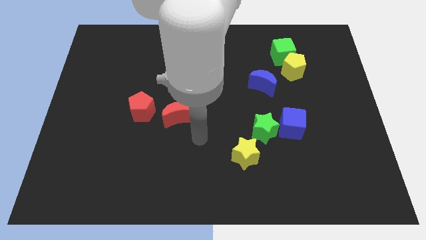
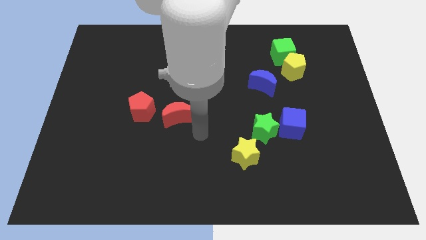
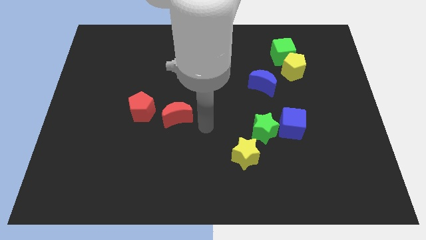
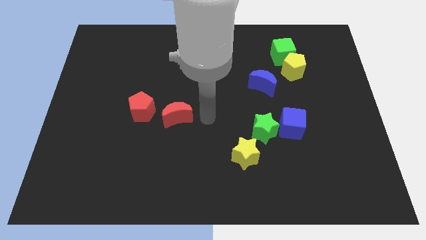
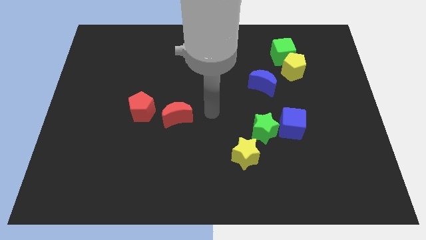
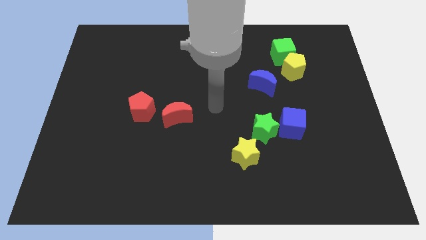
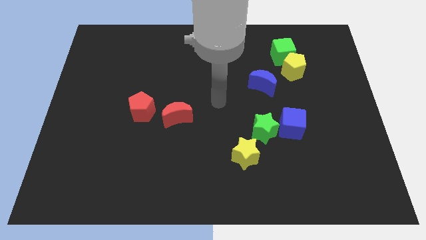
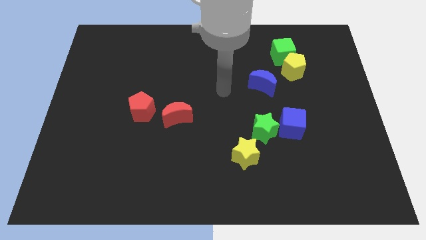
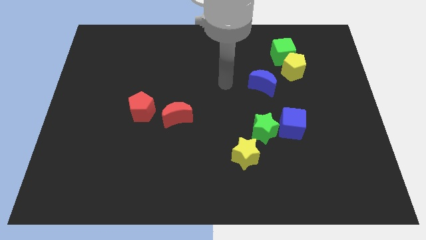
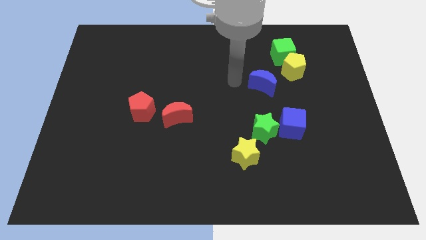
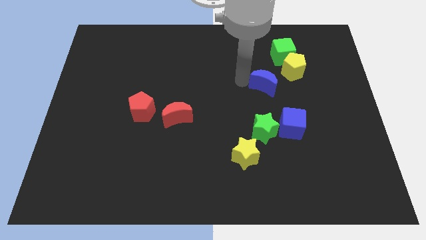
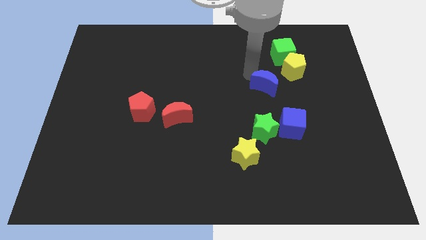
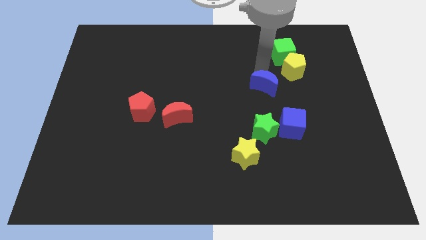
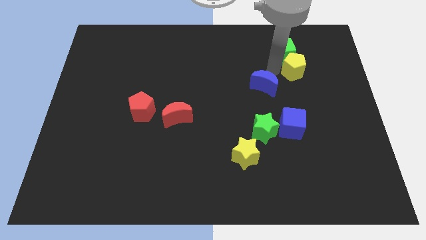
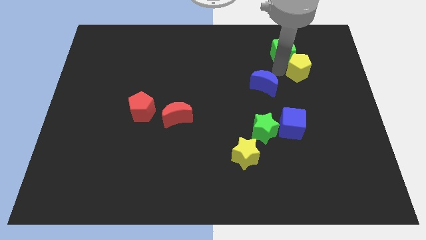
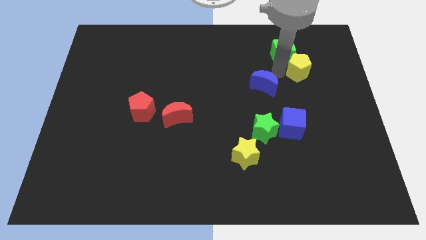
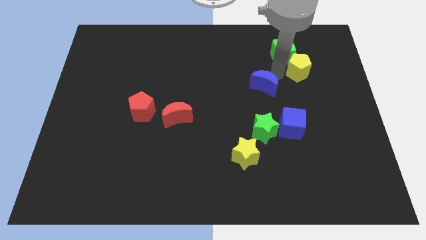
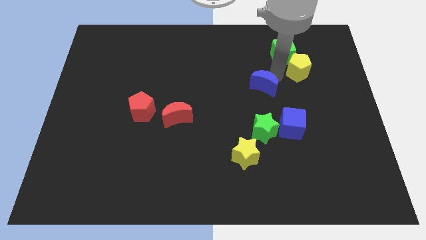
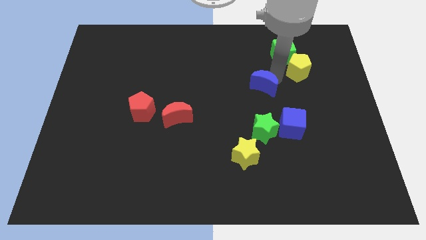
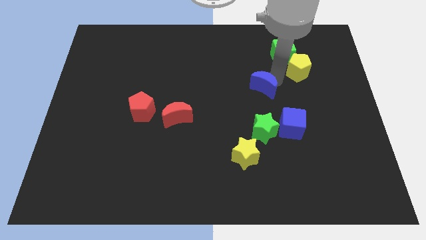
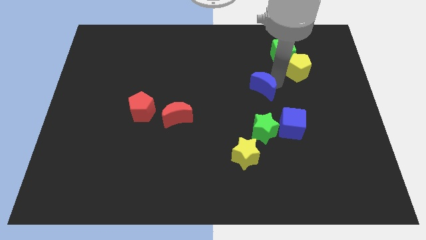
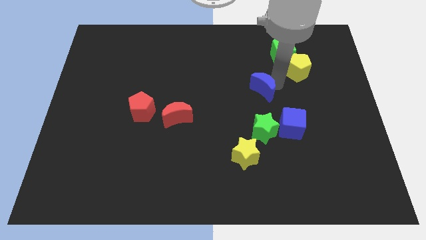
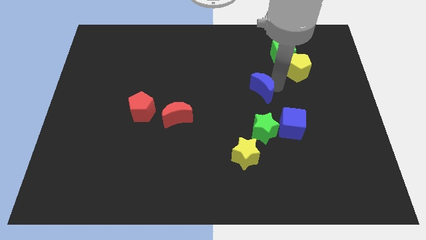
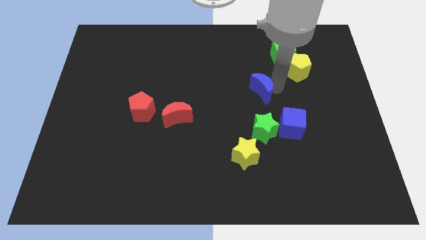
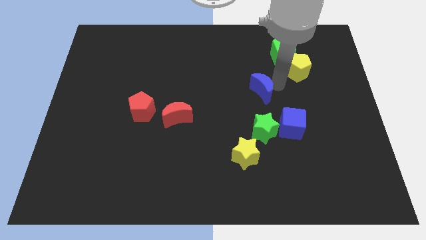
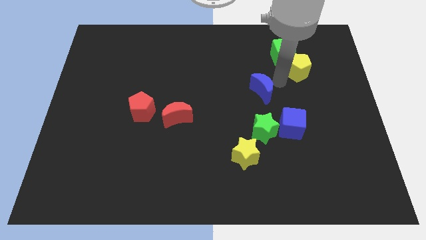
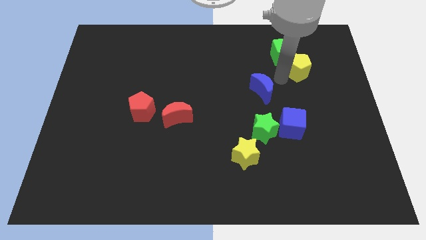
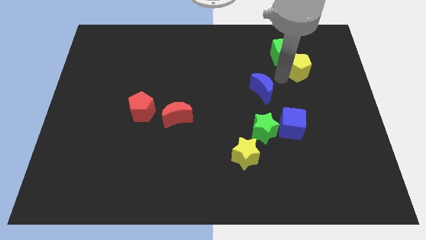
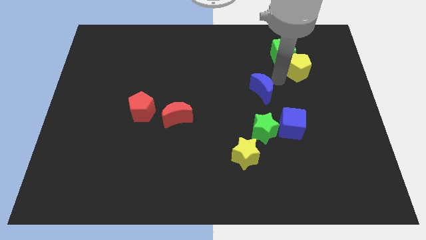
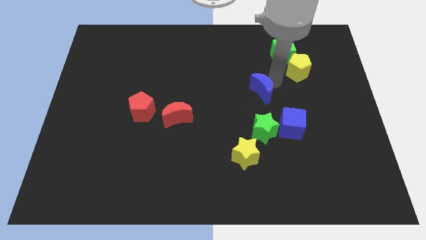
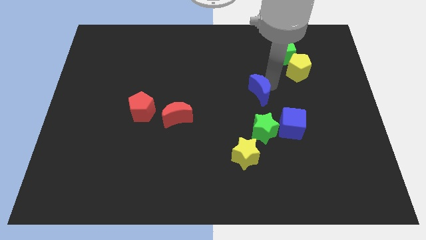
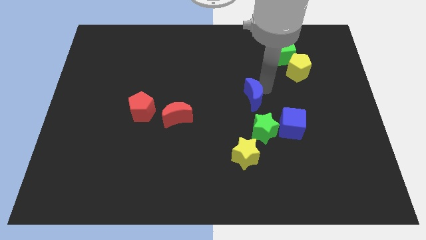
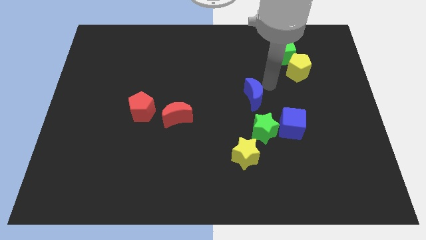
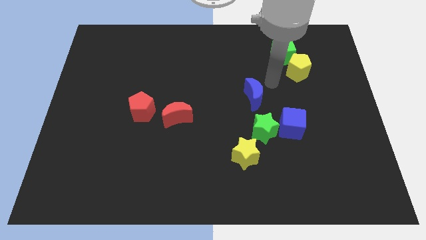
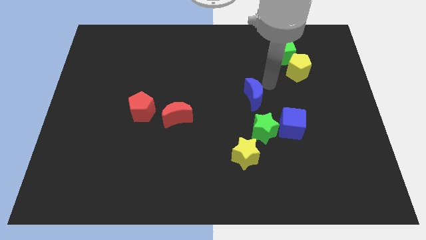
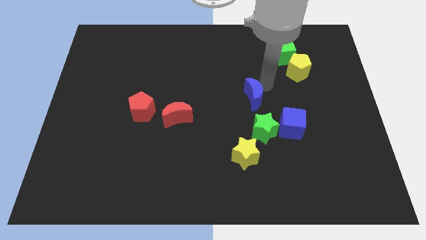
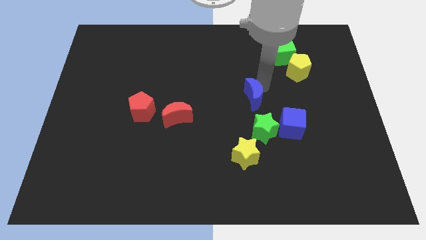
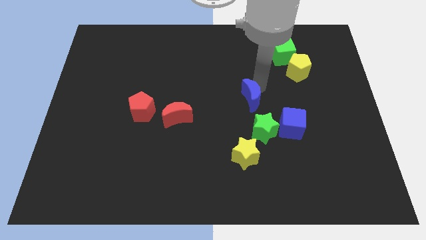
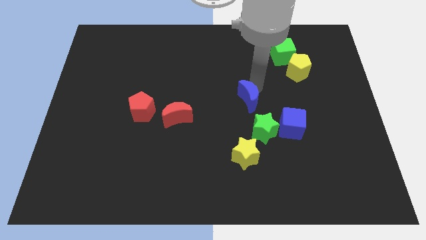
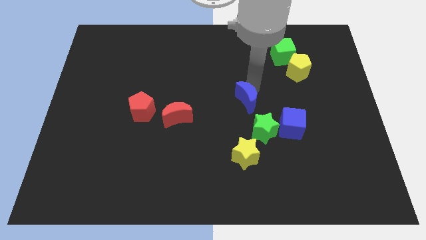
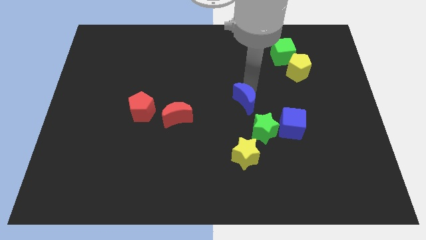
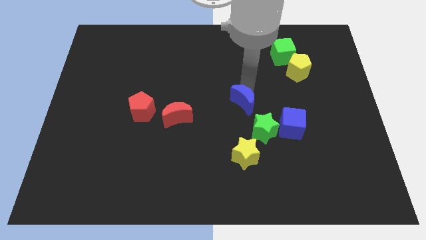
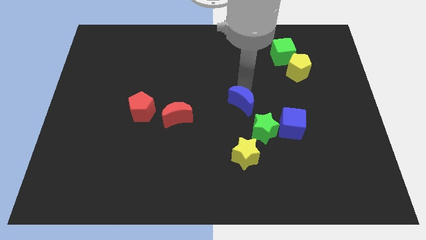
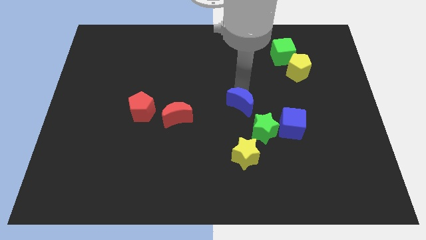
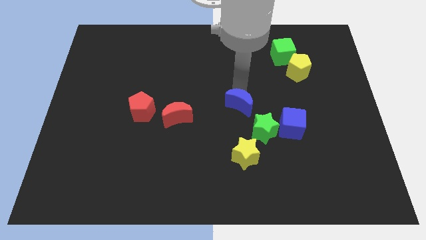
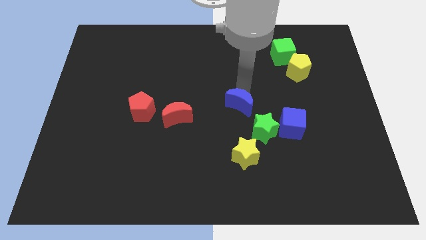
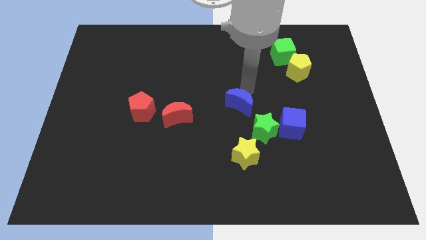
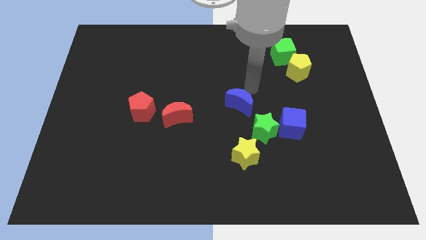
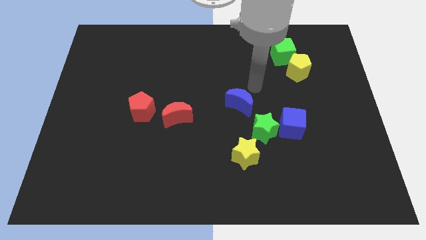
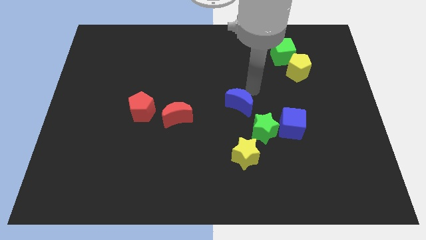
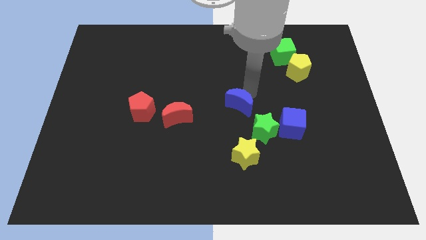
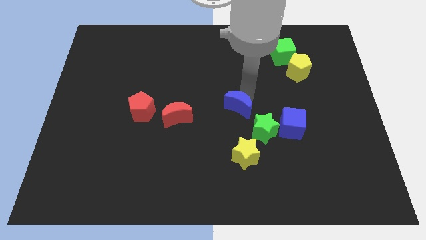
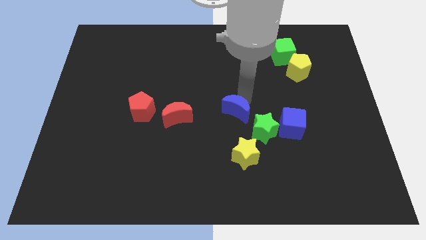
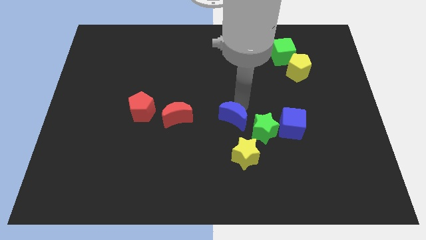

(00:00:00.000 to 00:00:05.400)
slide the blue moon to the left of the green star

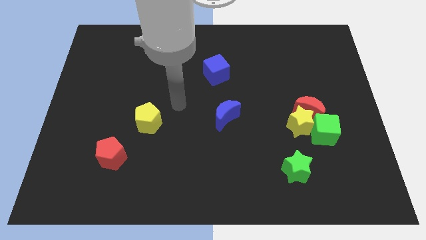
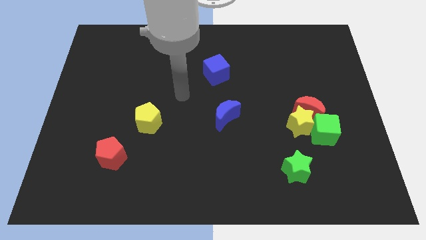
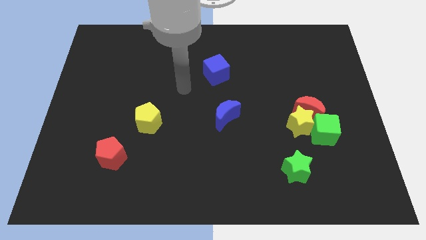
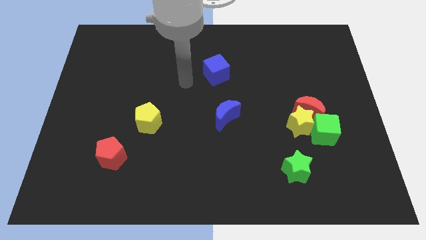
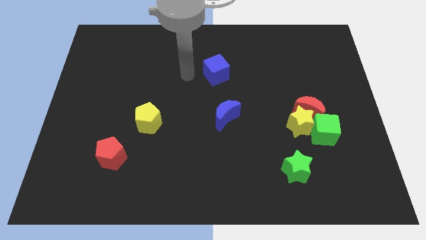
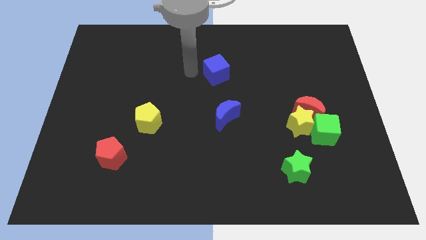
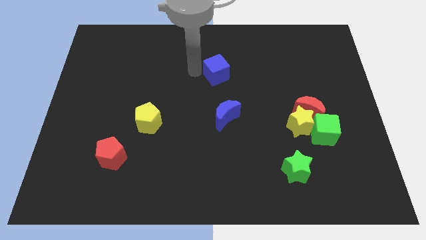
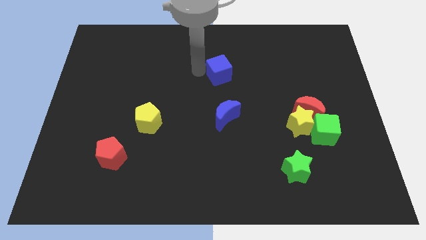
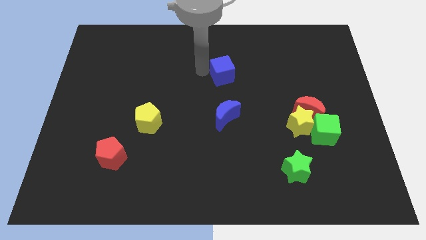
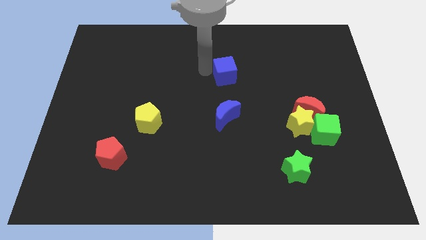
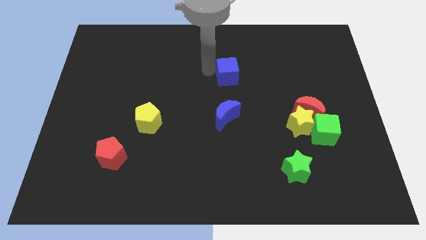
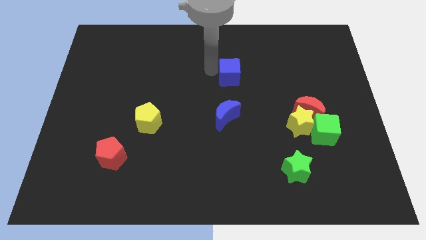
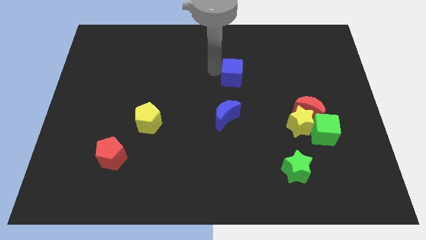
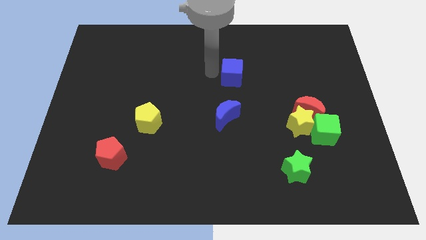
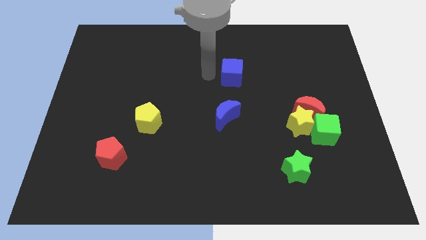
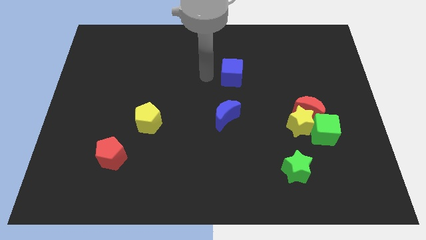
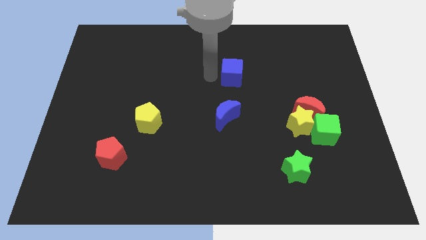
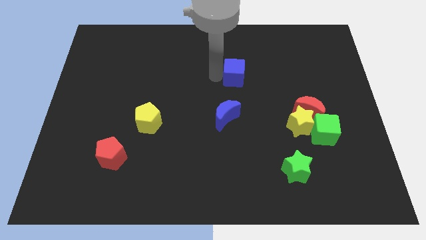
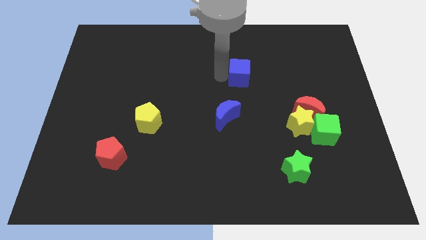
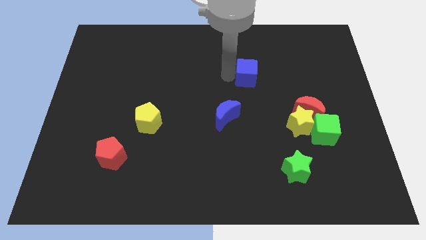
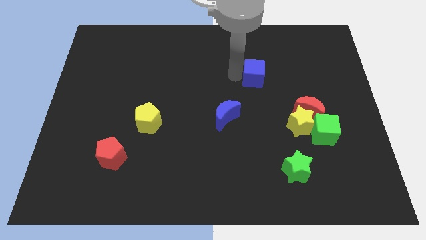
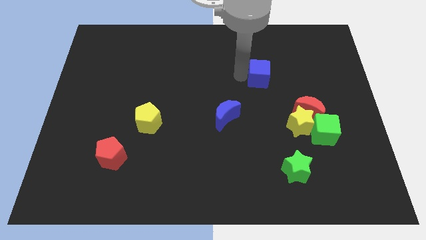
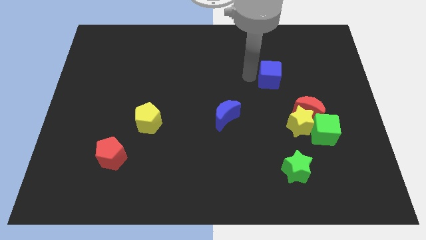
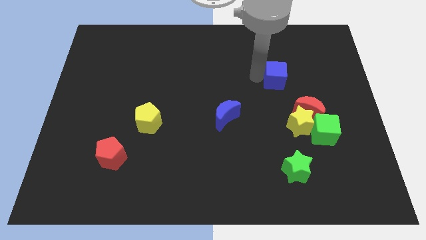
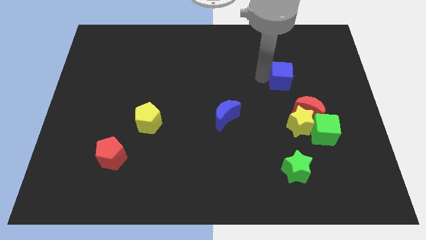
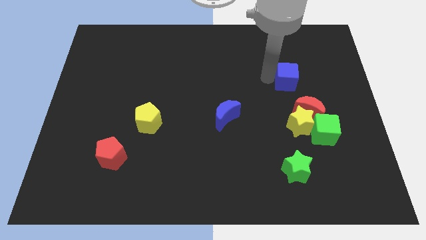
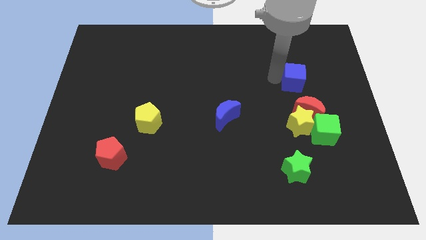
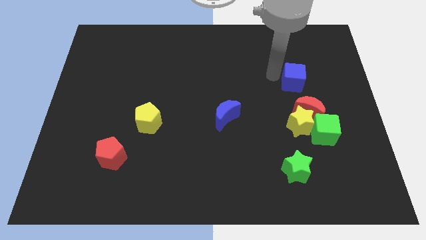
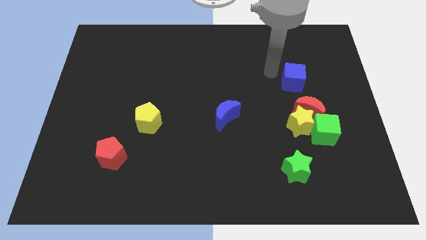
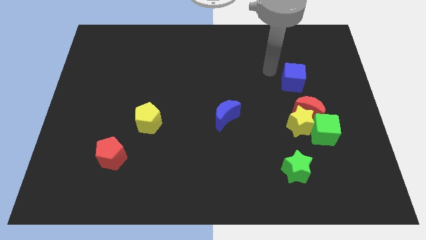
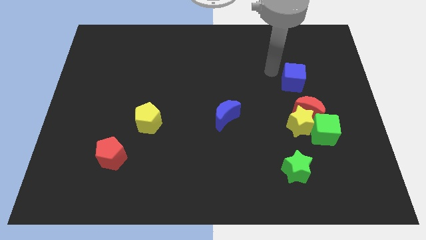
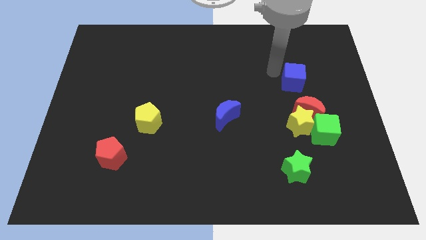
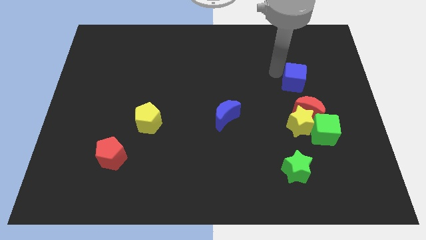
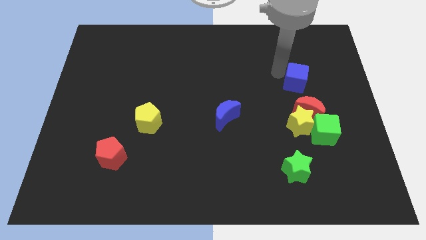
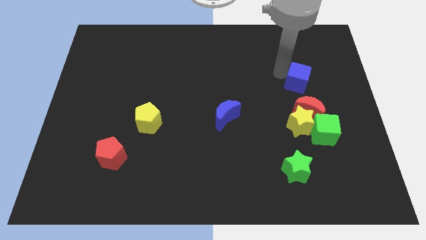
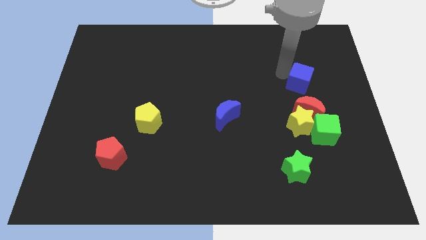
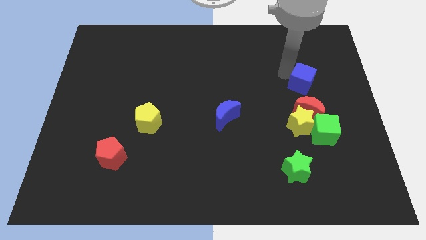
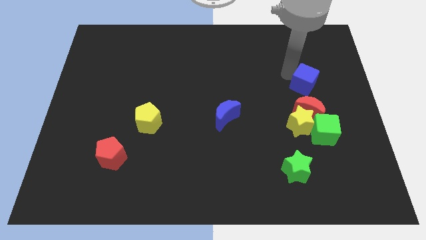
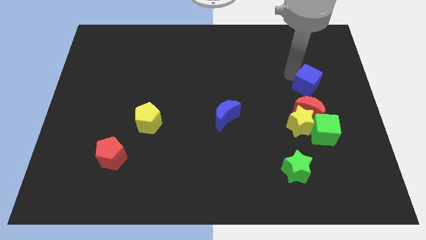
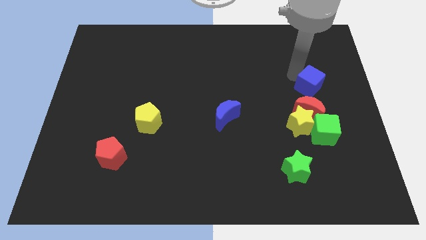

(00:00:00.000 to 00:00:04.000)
push the blue cube to the top right of the red moon
